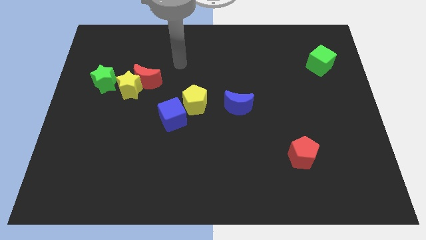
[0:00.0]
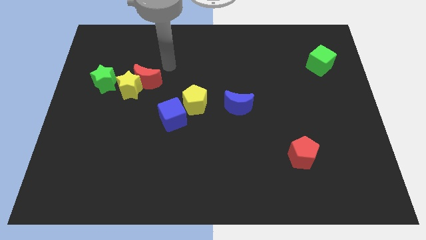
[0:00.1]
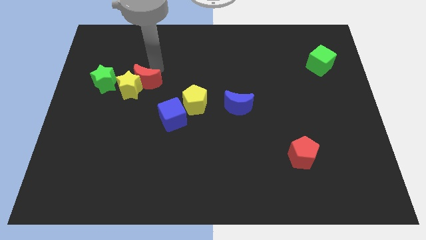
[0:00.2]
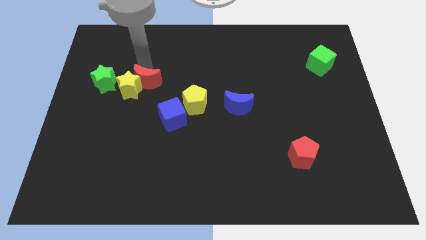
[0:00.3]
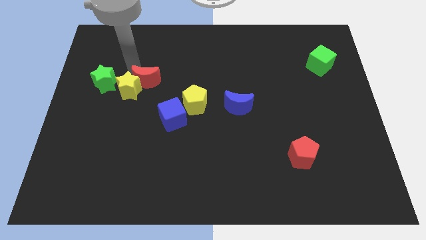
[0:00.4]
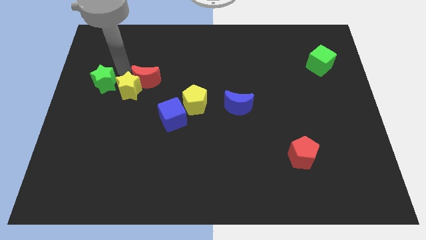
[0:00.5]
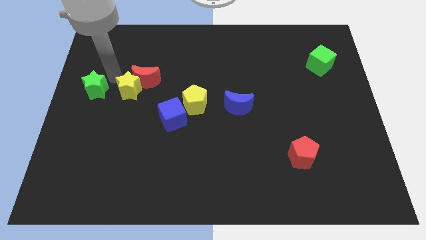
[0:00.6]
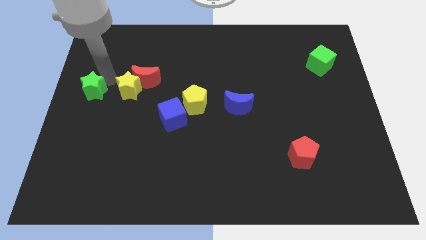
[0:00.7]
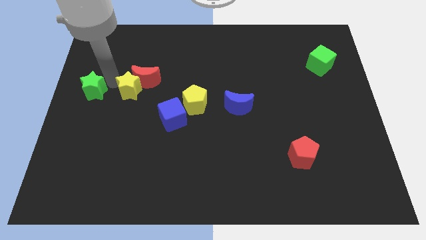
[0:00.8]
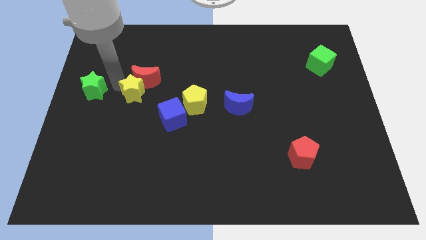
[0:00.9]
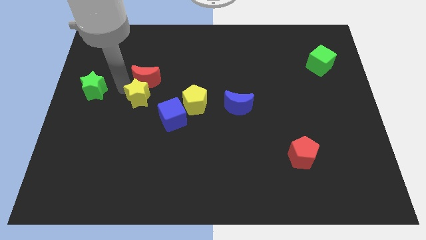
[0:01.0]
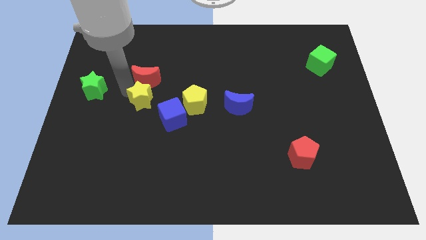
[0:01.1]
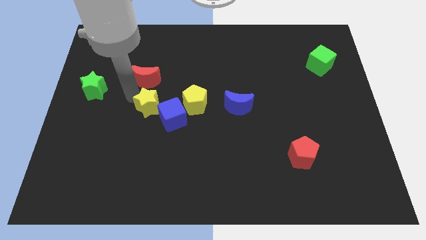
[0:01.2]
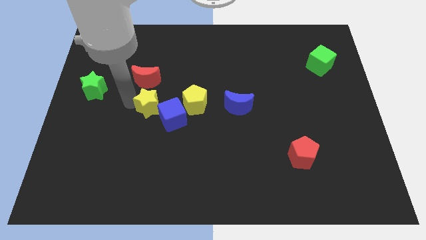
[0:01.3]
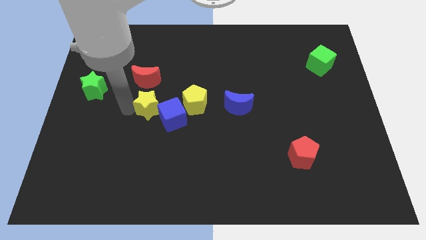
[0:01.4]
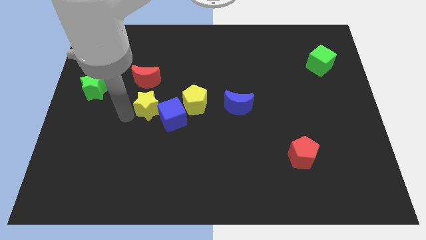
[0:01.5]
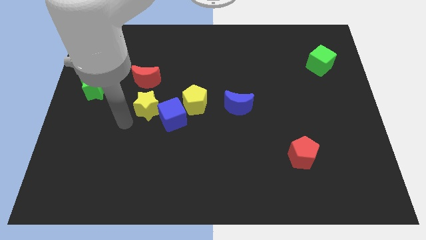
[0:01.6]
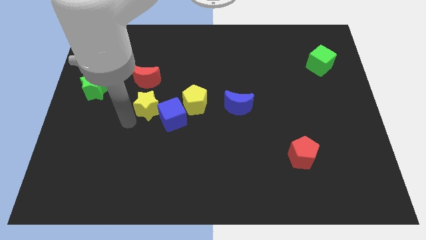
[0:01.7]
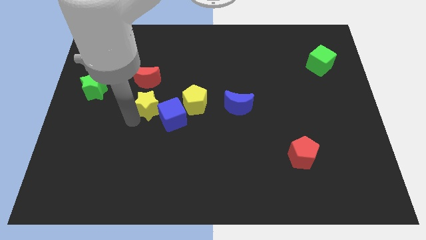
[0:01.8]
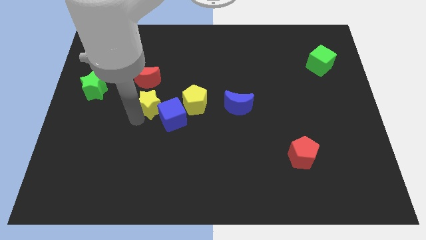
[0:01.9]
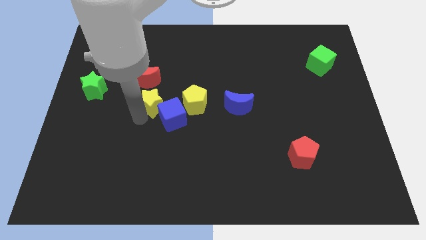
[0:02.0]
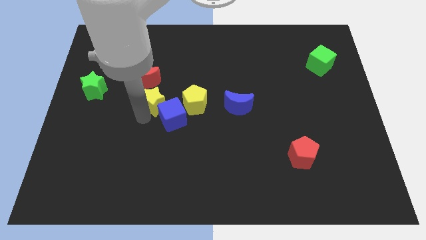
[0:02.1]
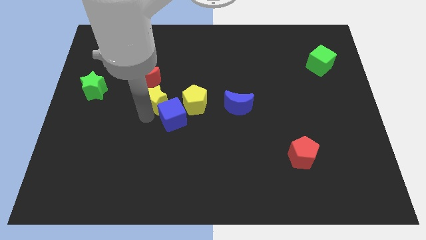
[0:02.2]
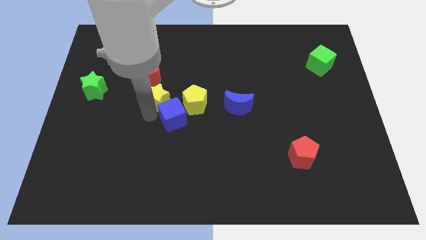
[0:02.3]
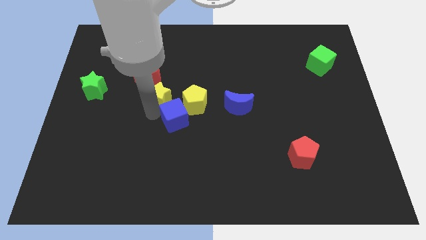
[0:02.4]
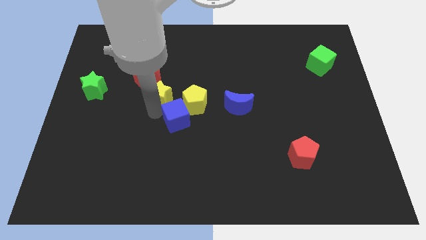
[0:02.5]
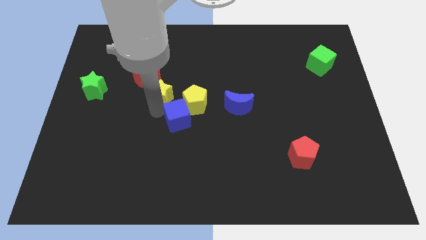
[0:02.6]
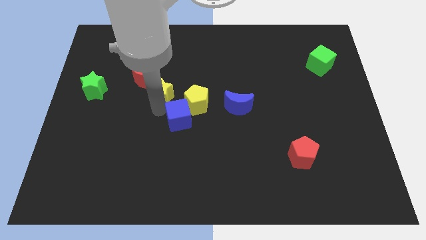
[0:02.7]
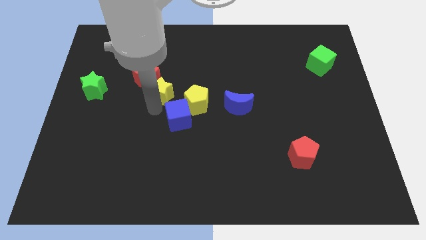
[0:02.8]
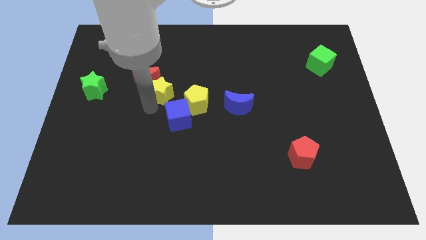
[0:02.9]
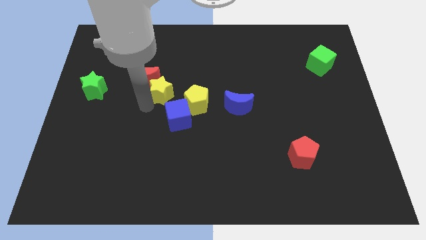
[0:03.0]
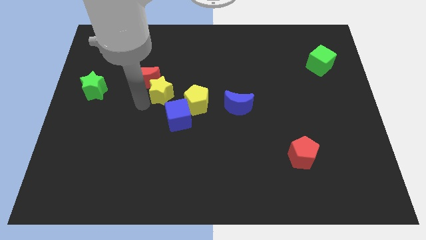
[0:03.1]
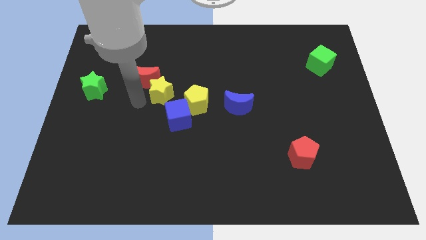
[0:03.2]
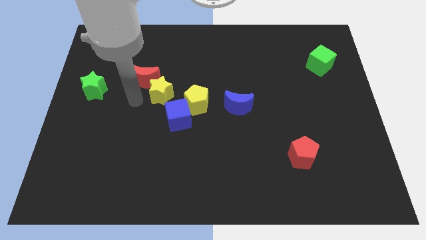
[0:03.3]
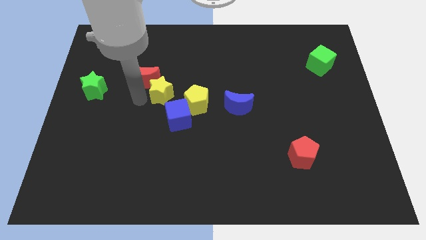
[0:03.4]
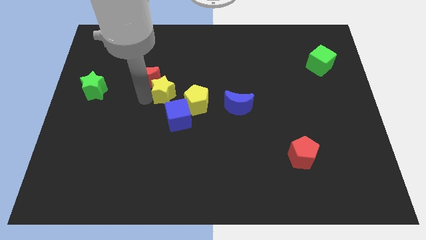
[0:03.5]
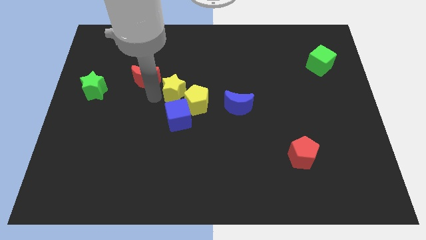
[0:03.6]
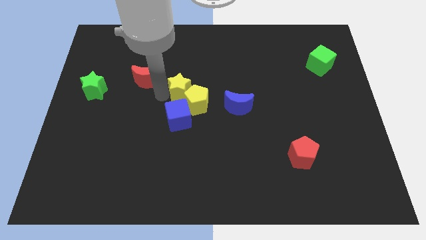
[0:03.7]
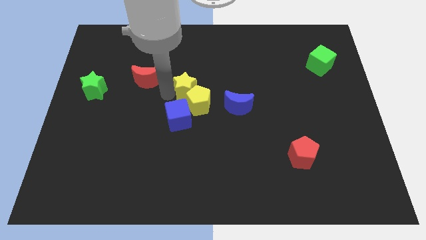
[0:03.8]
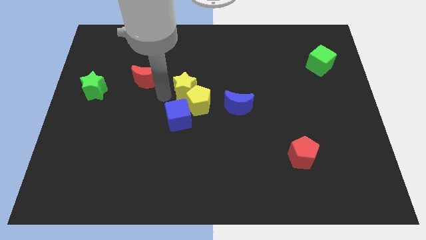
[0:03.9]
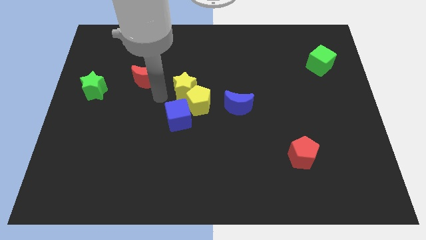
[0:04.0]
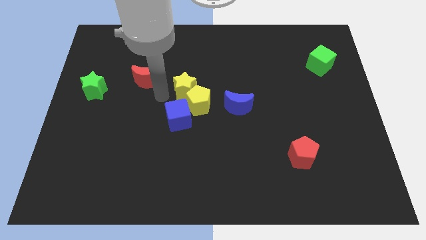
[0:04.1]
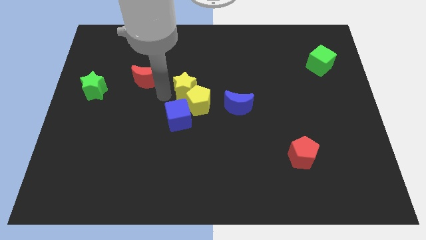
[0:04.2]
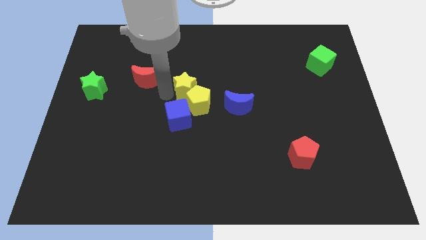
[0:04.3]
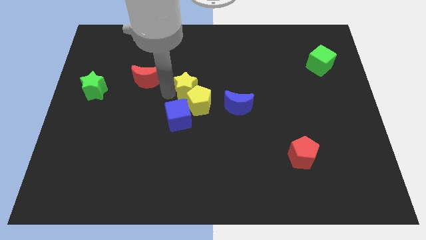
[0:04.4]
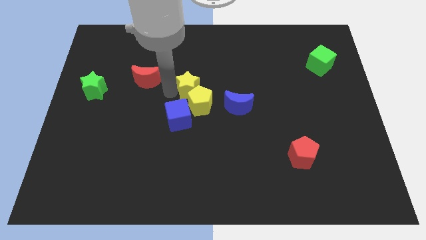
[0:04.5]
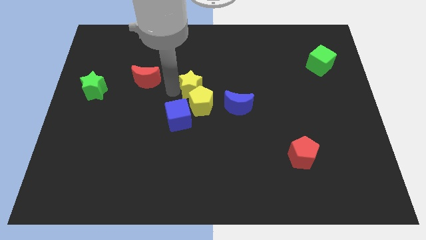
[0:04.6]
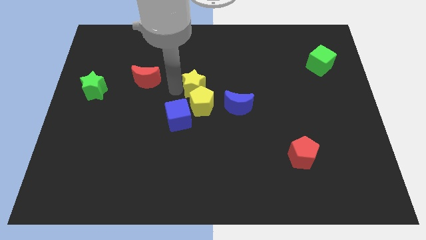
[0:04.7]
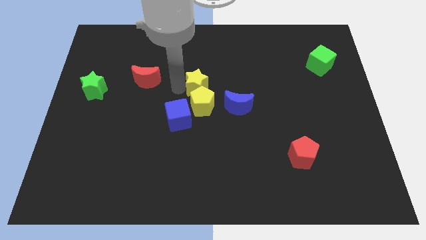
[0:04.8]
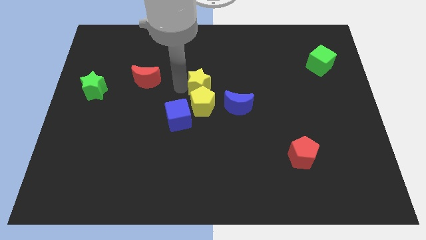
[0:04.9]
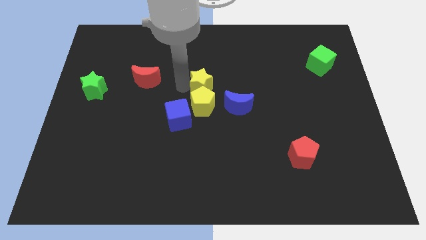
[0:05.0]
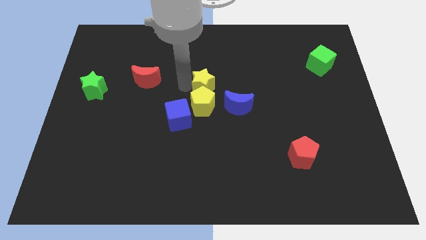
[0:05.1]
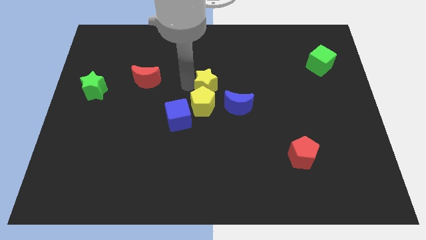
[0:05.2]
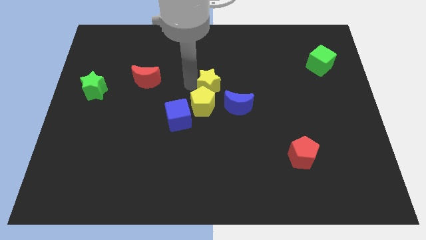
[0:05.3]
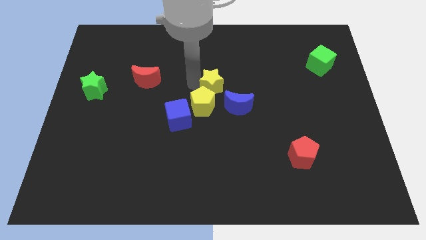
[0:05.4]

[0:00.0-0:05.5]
move the yellow star right

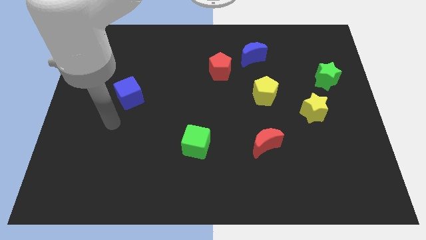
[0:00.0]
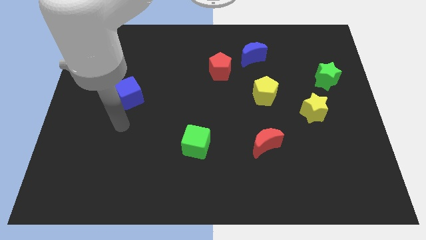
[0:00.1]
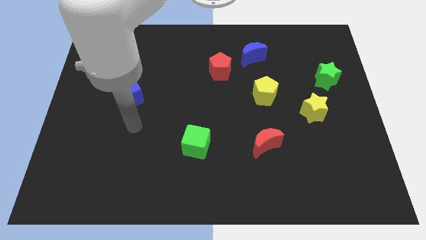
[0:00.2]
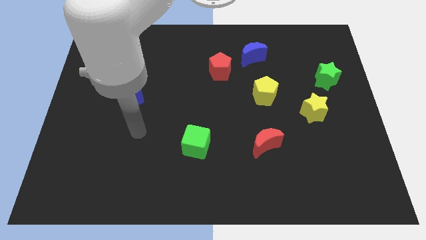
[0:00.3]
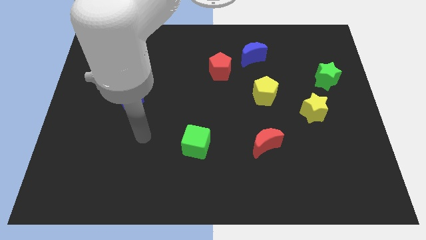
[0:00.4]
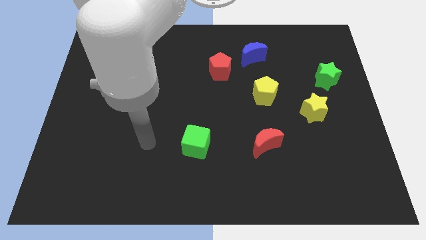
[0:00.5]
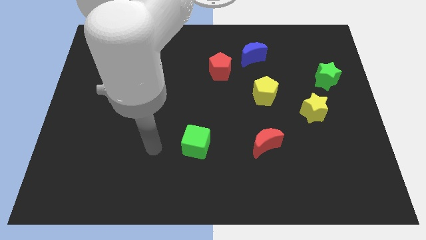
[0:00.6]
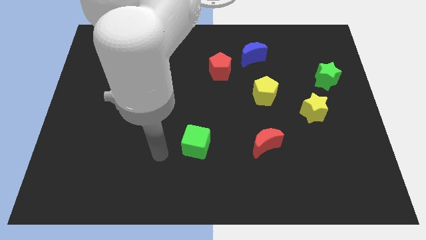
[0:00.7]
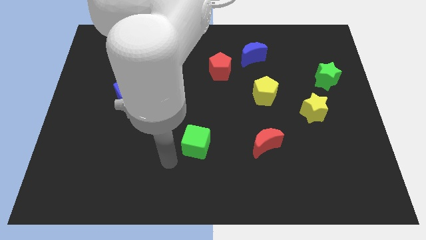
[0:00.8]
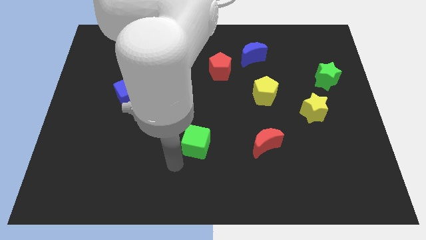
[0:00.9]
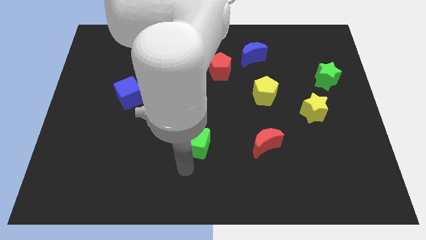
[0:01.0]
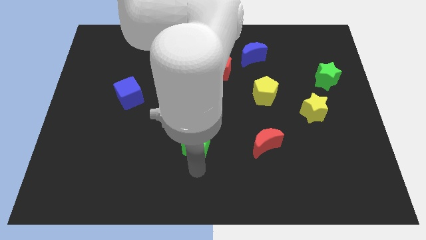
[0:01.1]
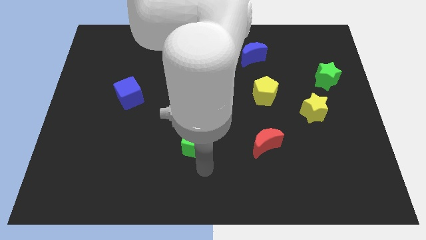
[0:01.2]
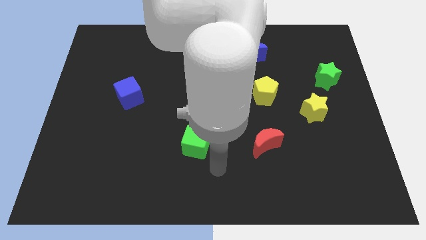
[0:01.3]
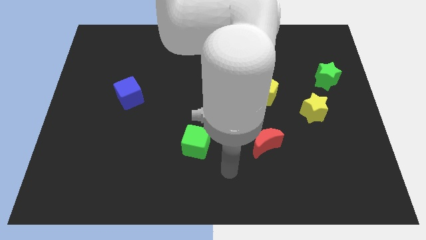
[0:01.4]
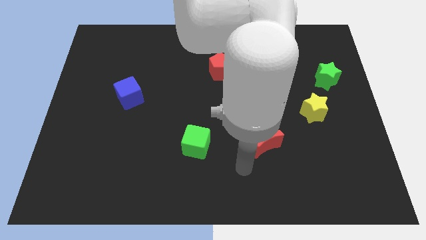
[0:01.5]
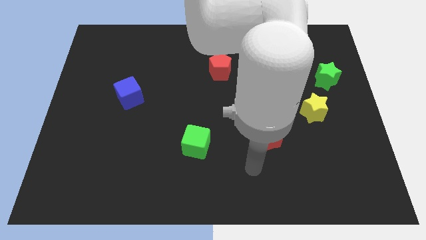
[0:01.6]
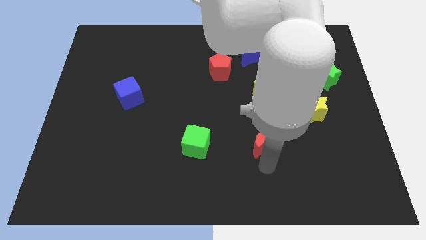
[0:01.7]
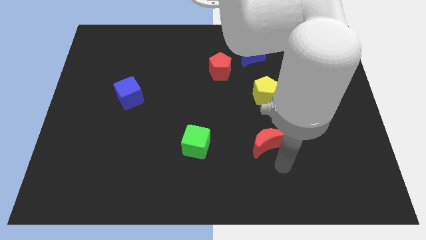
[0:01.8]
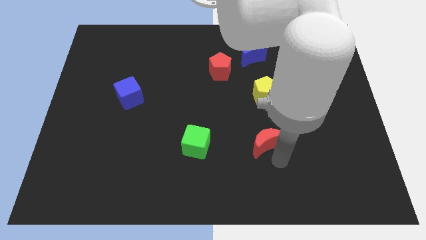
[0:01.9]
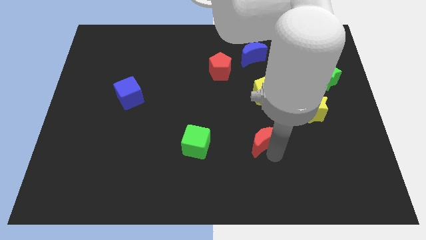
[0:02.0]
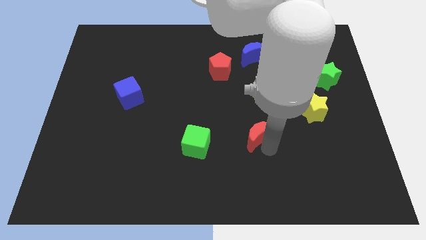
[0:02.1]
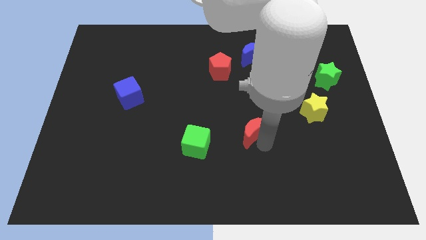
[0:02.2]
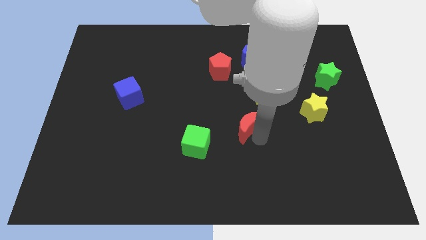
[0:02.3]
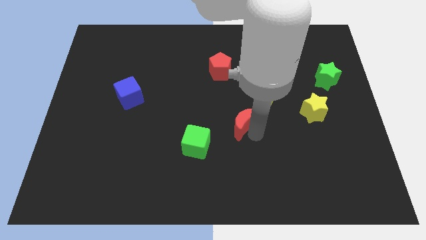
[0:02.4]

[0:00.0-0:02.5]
slide the red moon up and left slightly

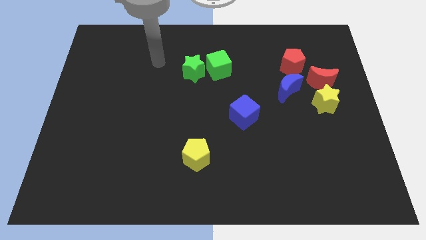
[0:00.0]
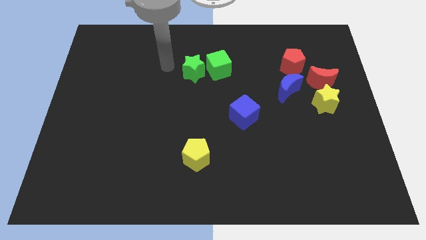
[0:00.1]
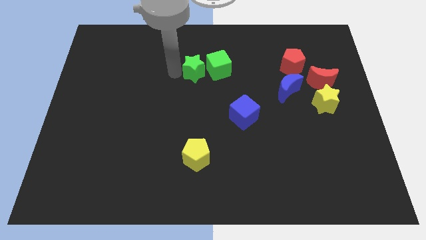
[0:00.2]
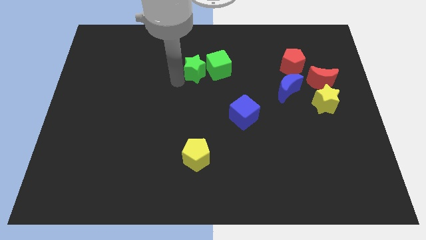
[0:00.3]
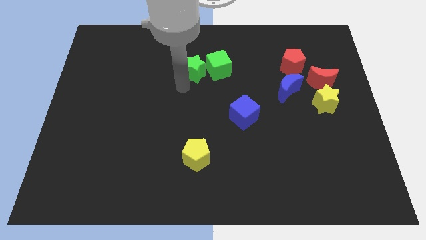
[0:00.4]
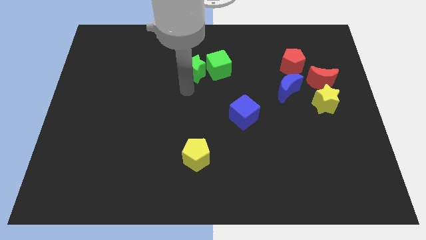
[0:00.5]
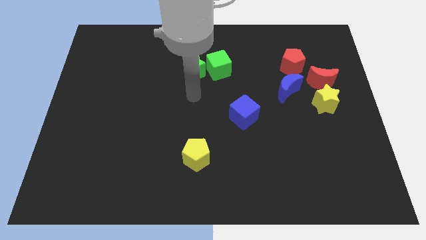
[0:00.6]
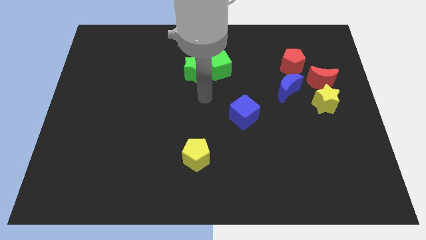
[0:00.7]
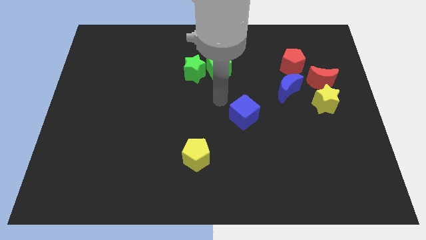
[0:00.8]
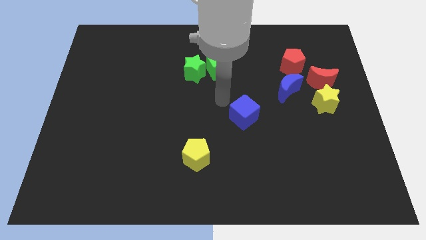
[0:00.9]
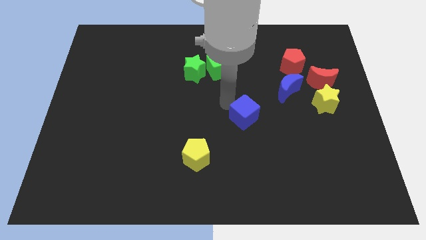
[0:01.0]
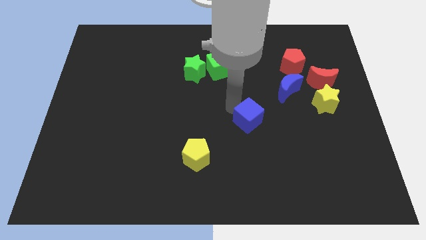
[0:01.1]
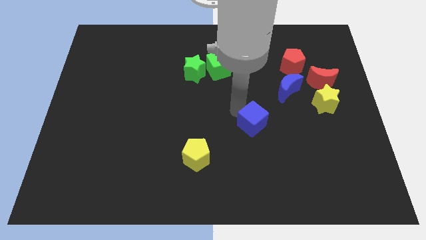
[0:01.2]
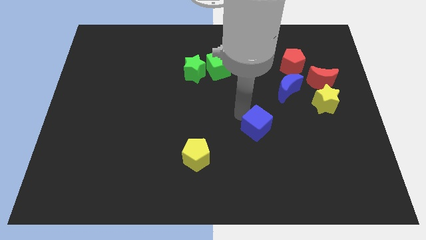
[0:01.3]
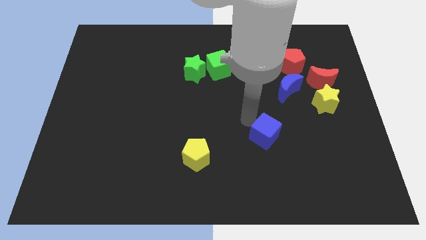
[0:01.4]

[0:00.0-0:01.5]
slightly move the blue cube downwards and to the right
